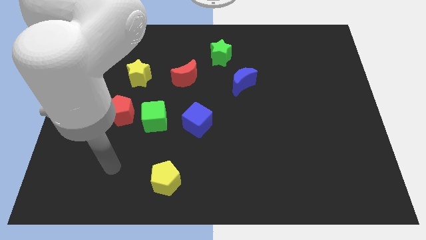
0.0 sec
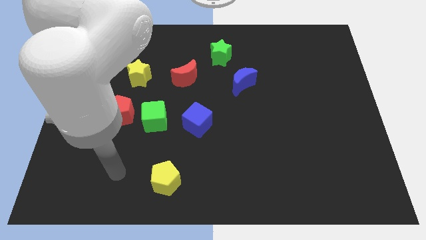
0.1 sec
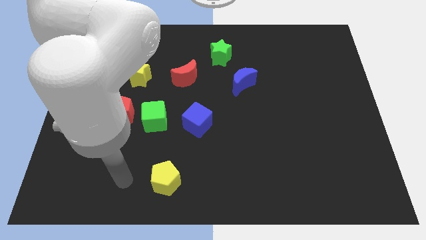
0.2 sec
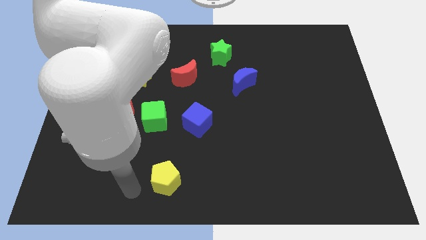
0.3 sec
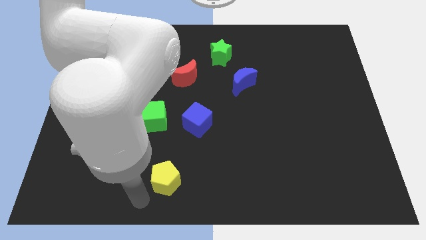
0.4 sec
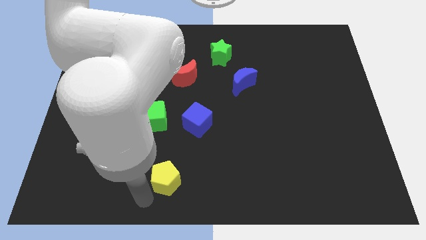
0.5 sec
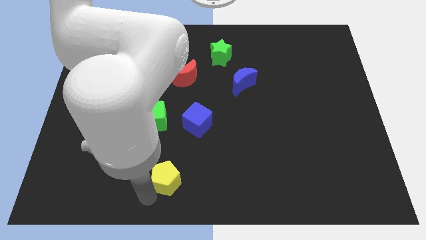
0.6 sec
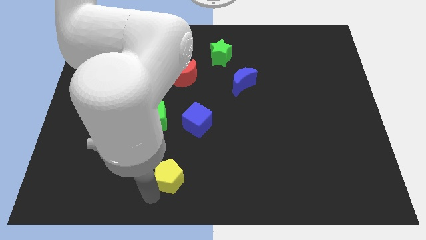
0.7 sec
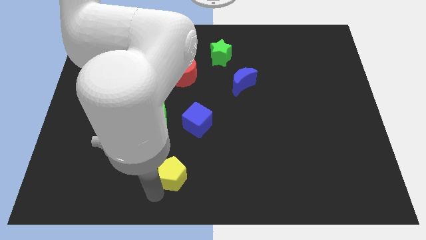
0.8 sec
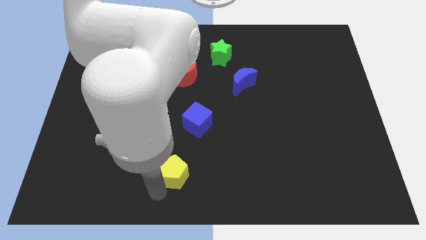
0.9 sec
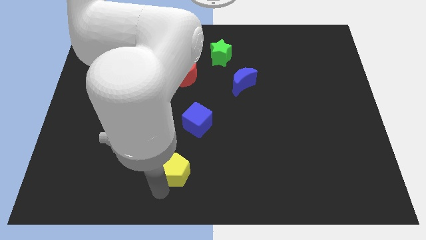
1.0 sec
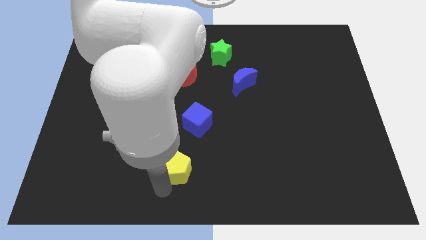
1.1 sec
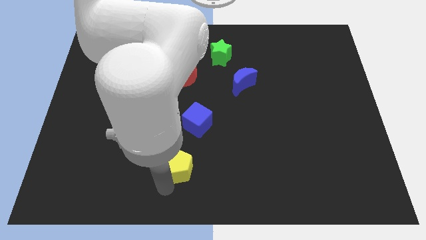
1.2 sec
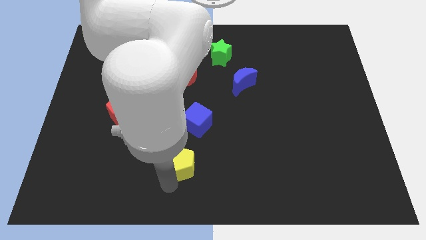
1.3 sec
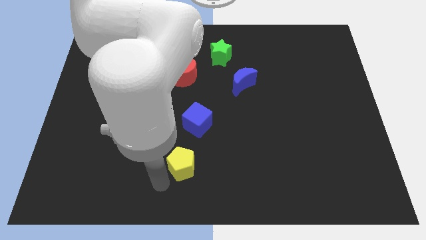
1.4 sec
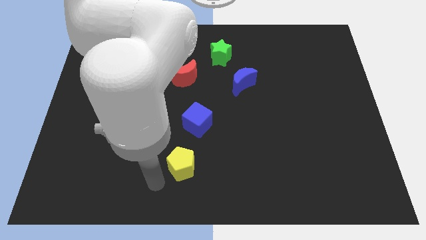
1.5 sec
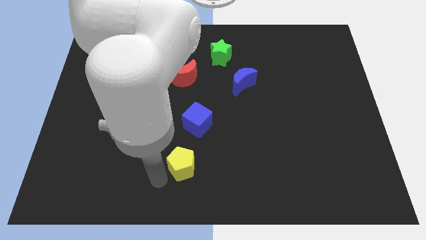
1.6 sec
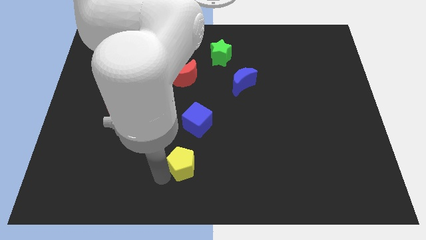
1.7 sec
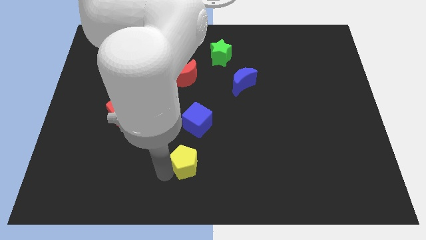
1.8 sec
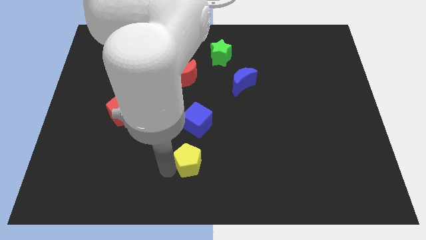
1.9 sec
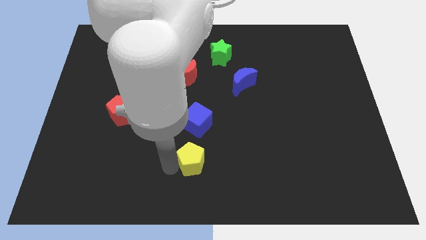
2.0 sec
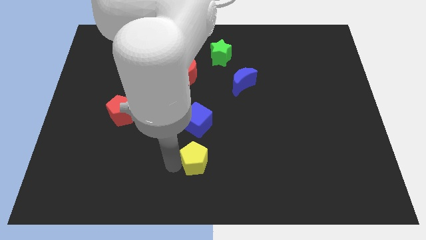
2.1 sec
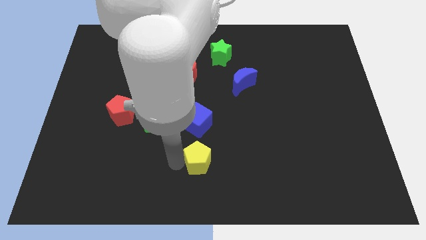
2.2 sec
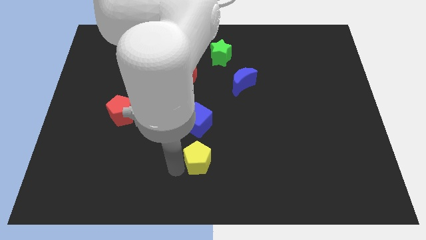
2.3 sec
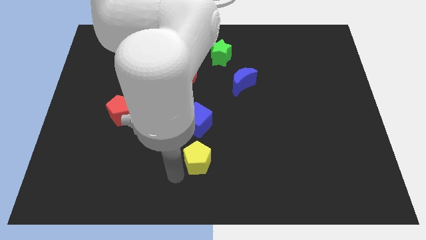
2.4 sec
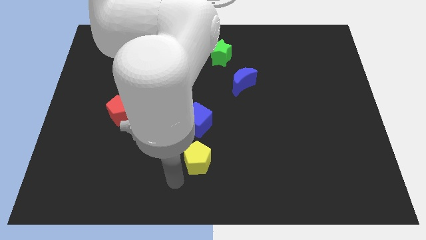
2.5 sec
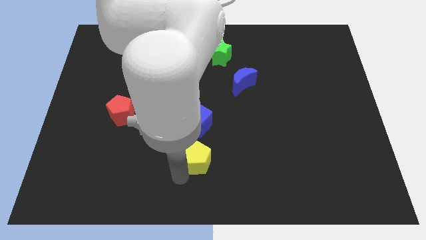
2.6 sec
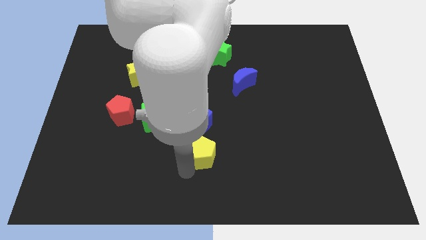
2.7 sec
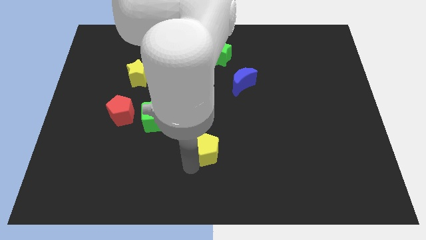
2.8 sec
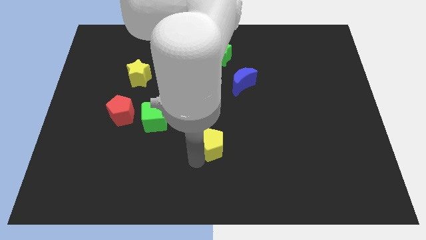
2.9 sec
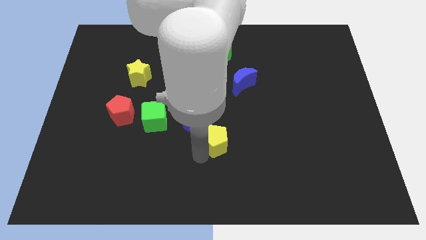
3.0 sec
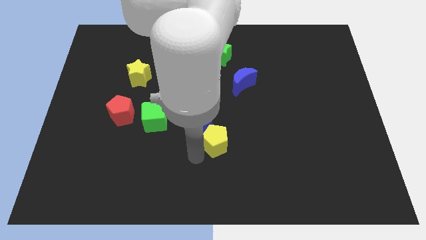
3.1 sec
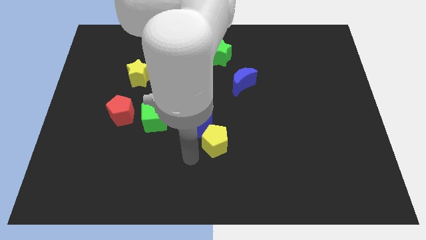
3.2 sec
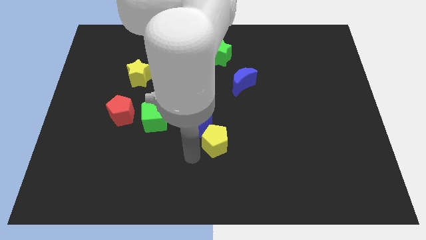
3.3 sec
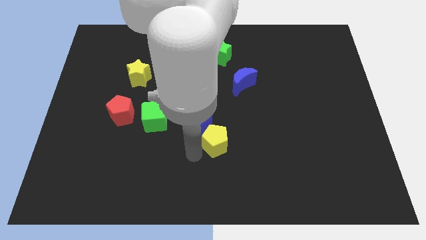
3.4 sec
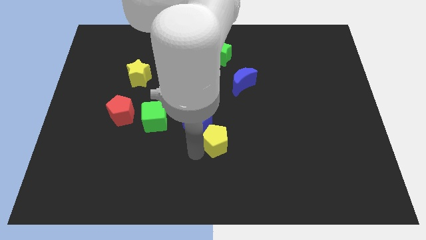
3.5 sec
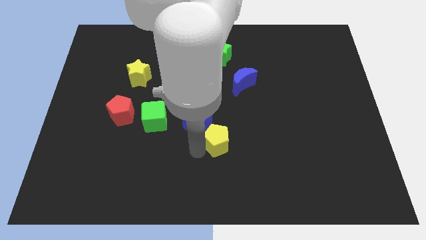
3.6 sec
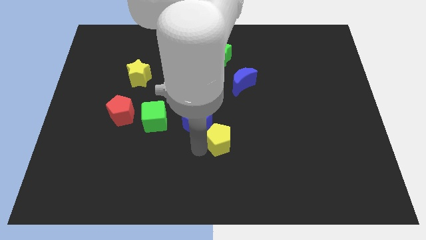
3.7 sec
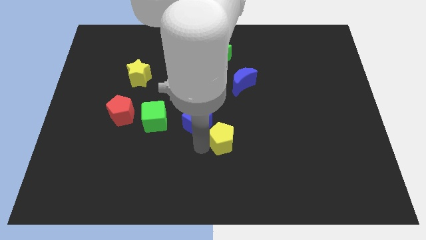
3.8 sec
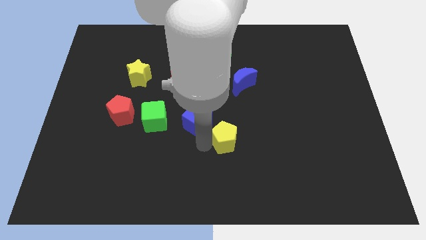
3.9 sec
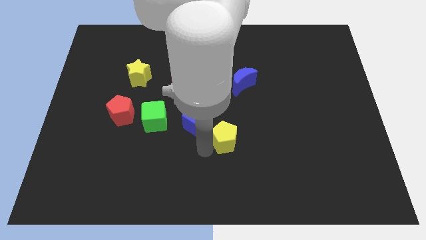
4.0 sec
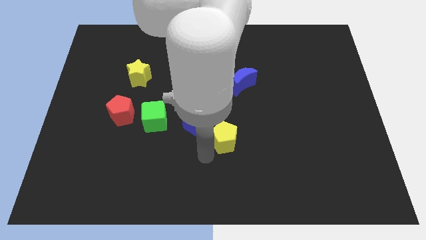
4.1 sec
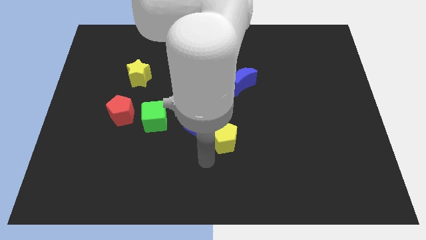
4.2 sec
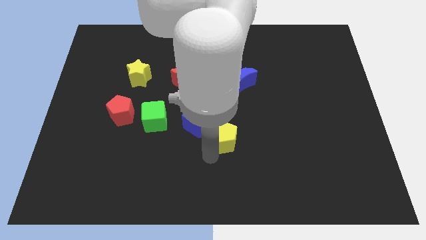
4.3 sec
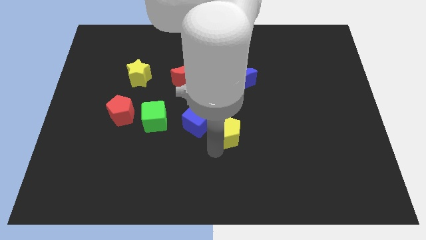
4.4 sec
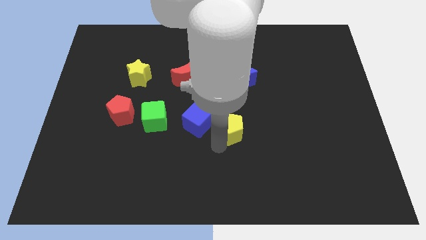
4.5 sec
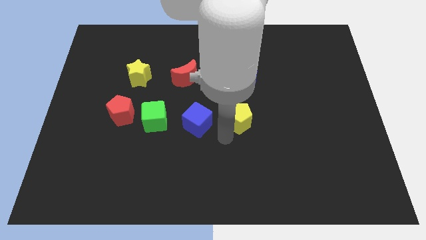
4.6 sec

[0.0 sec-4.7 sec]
push the yellow pentagon diagonally up and right

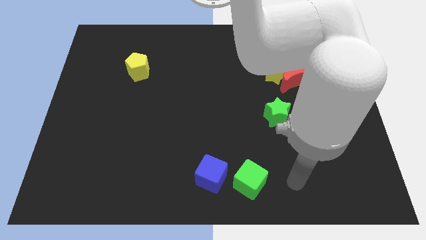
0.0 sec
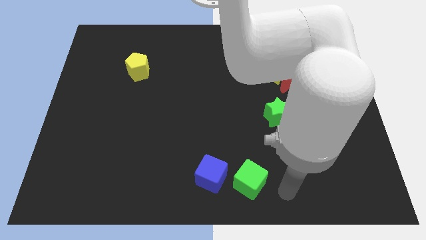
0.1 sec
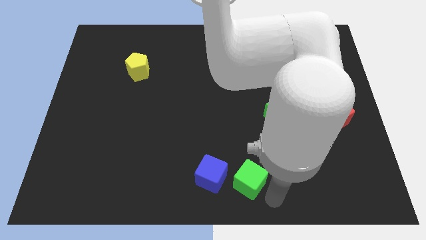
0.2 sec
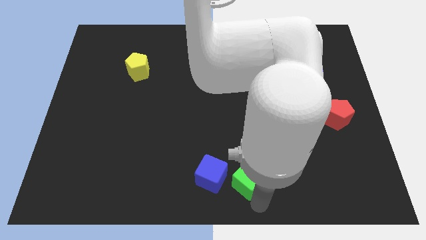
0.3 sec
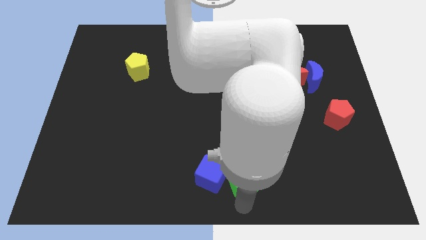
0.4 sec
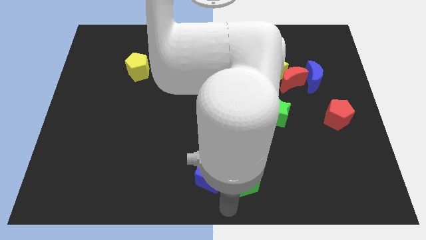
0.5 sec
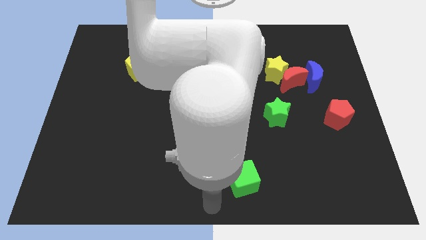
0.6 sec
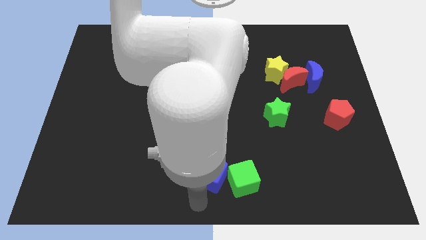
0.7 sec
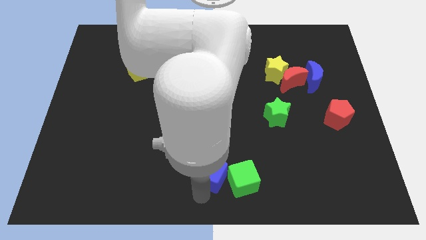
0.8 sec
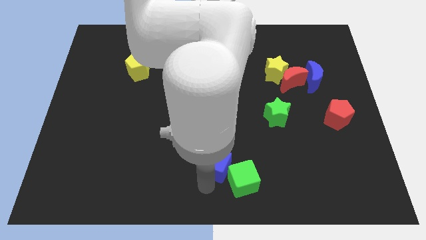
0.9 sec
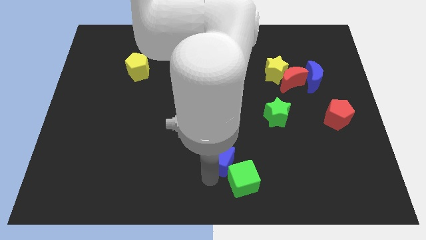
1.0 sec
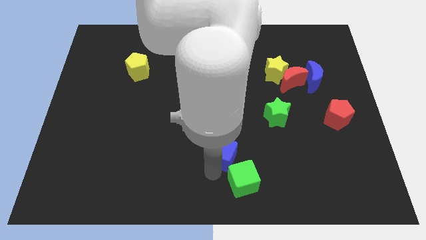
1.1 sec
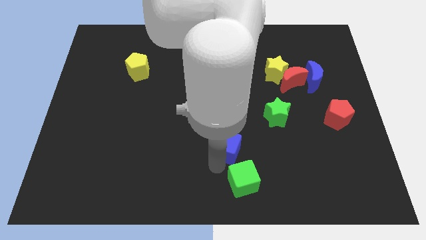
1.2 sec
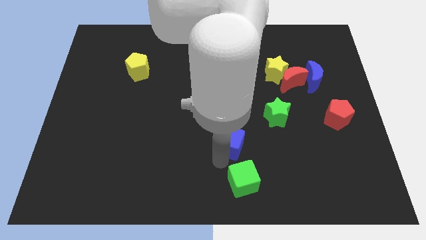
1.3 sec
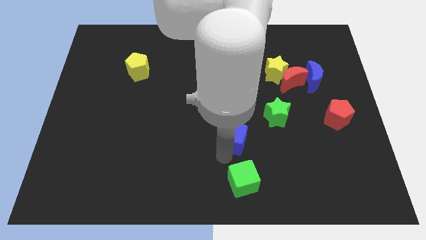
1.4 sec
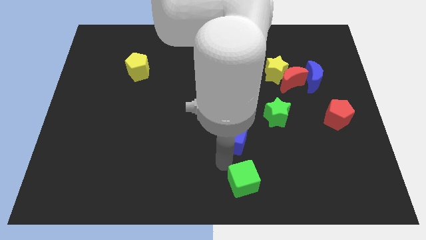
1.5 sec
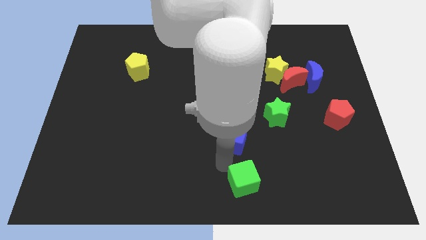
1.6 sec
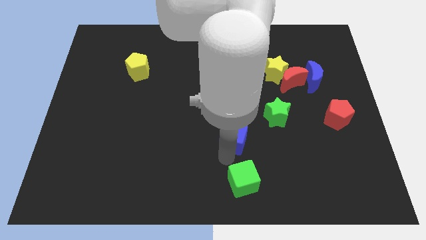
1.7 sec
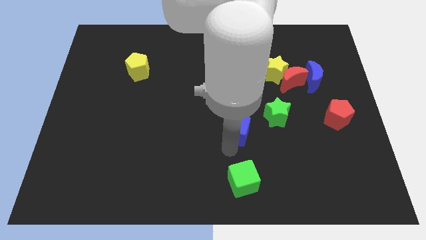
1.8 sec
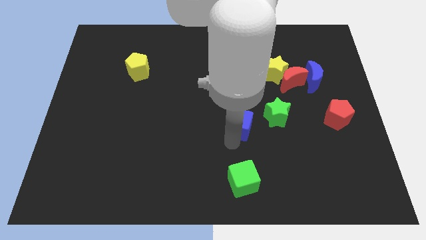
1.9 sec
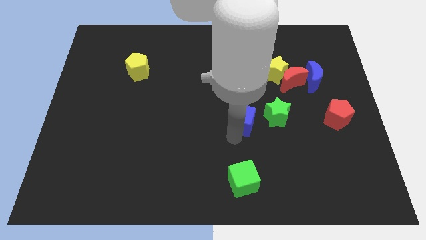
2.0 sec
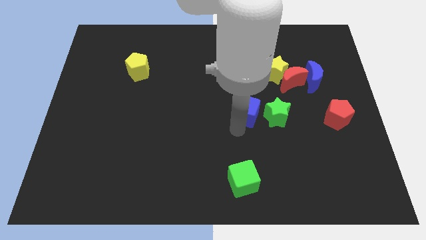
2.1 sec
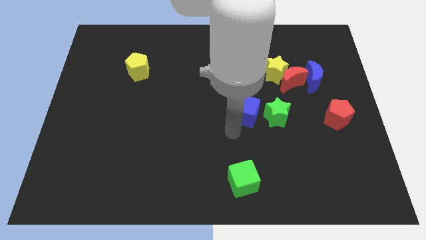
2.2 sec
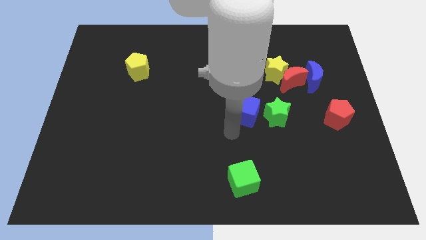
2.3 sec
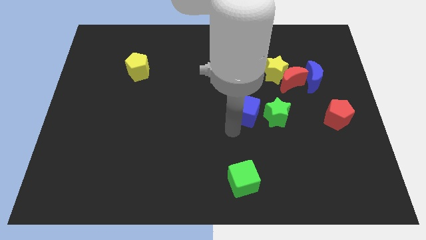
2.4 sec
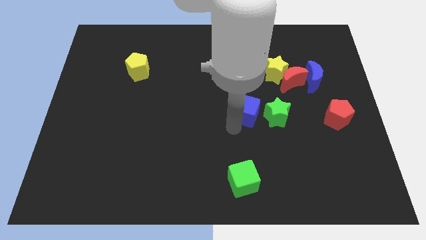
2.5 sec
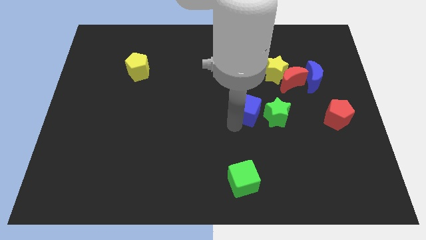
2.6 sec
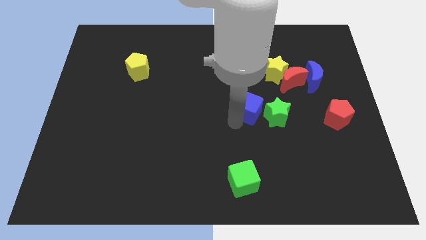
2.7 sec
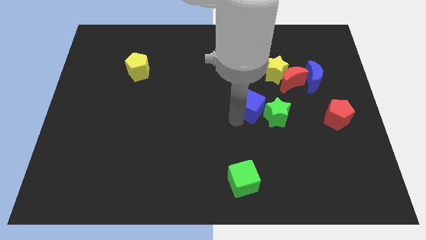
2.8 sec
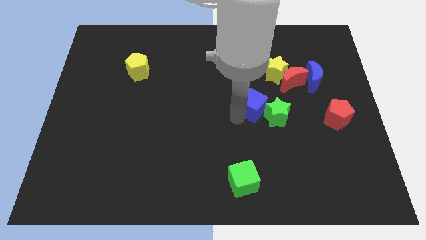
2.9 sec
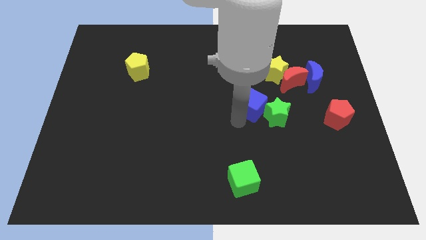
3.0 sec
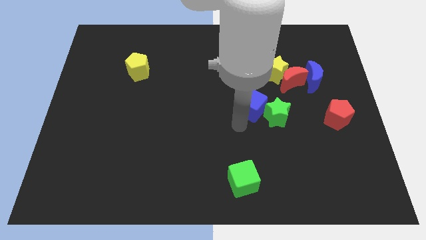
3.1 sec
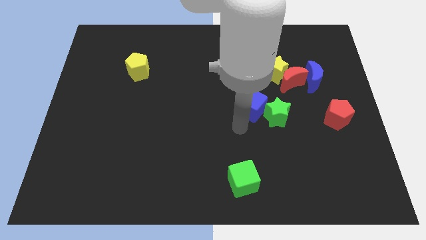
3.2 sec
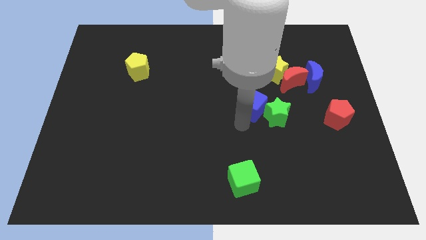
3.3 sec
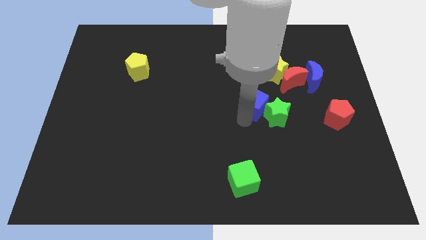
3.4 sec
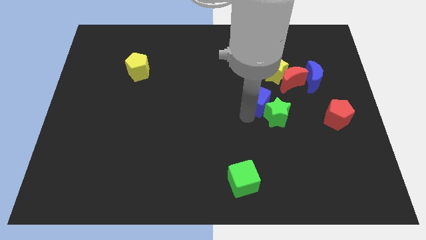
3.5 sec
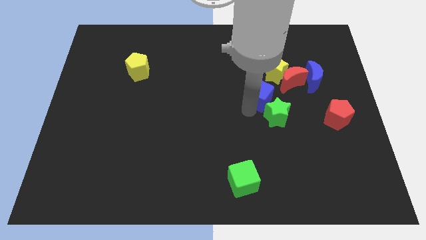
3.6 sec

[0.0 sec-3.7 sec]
move the blue cube upwards and right
